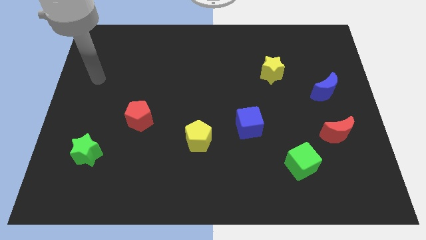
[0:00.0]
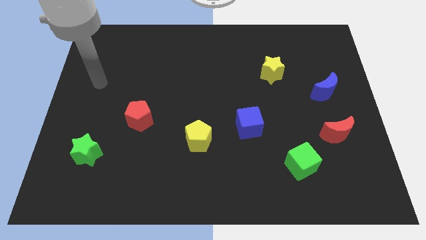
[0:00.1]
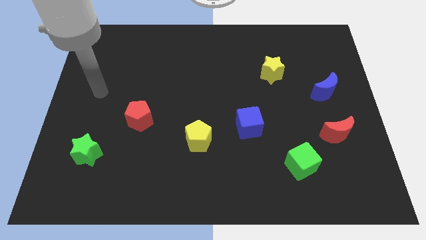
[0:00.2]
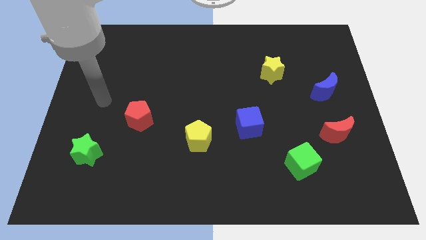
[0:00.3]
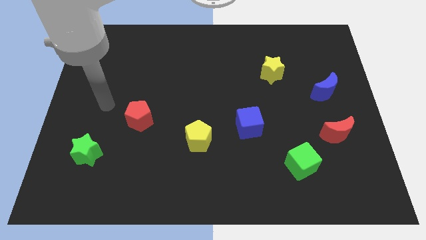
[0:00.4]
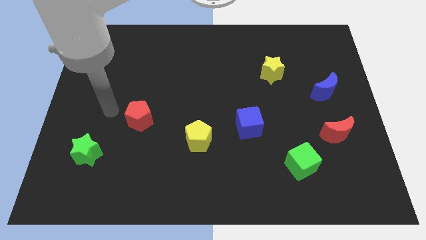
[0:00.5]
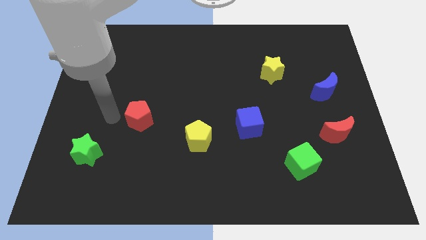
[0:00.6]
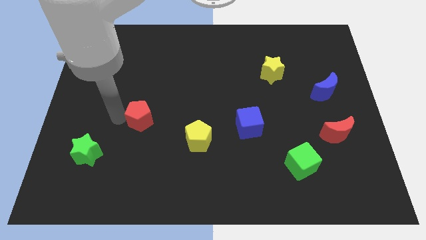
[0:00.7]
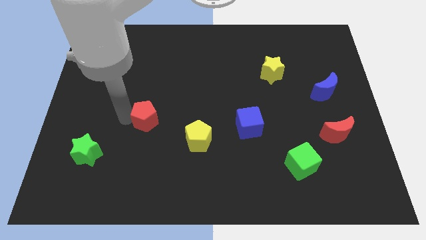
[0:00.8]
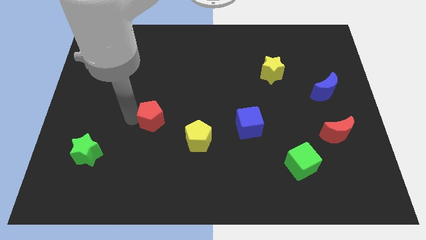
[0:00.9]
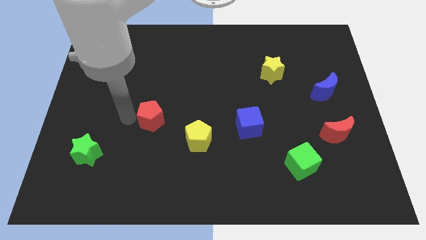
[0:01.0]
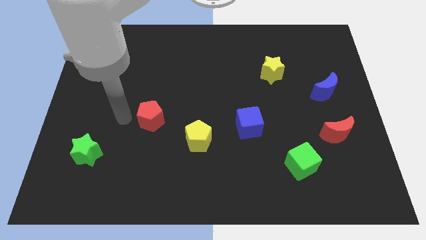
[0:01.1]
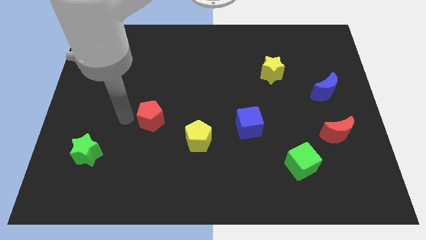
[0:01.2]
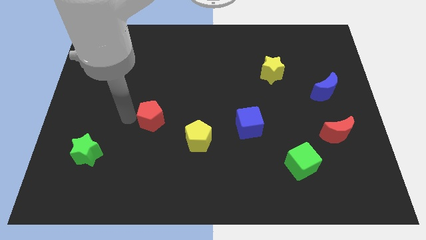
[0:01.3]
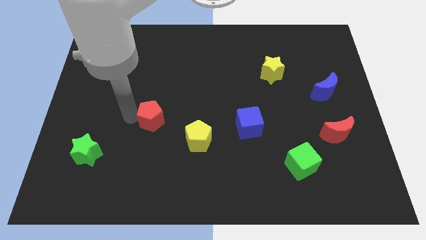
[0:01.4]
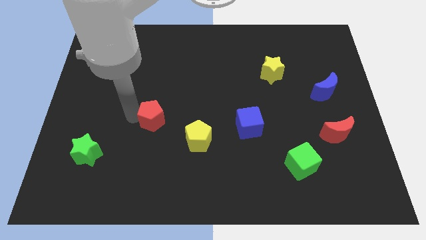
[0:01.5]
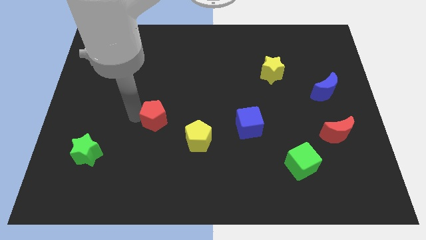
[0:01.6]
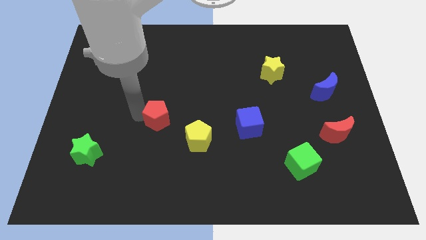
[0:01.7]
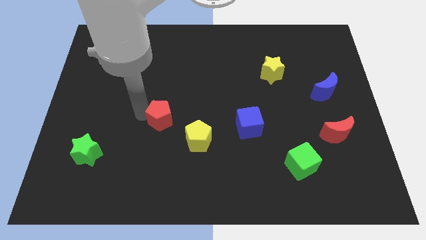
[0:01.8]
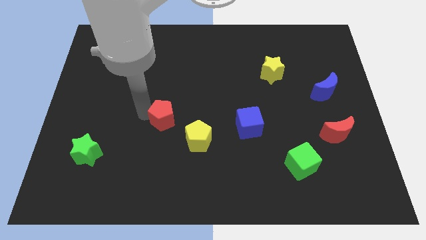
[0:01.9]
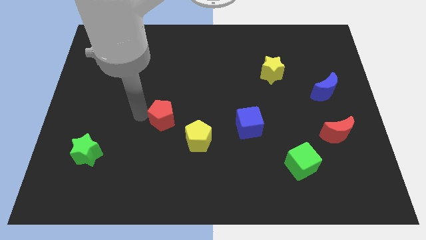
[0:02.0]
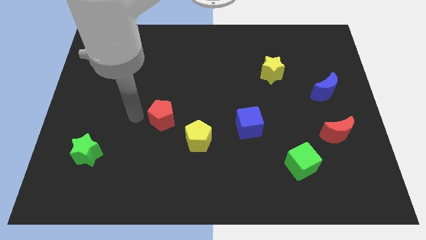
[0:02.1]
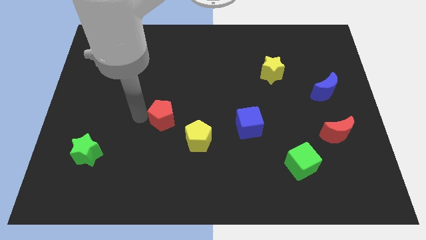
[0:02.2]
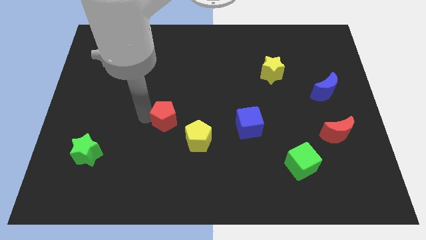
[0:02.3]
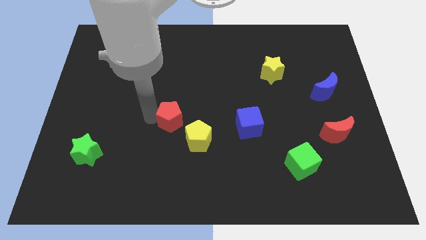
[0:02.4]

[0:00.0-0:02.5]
move the red pentagon to the right a little

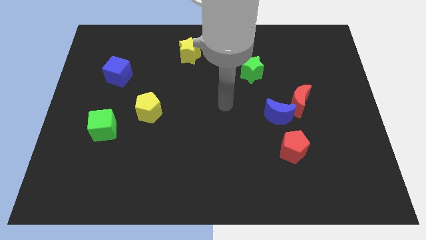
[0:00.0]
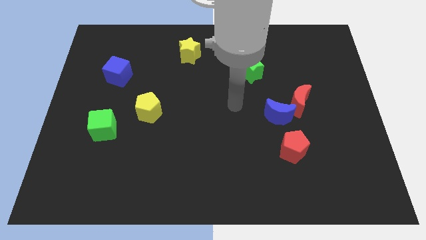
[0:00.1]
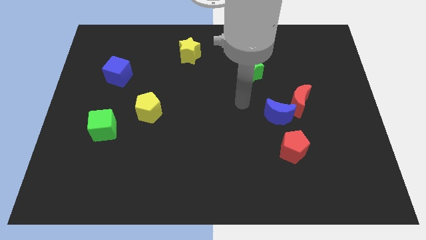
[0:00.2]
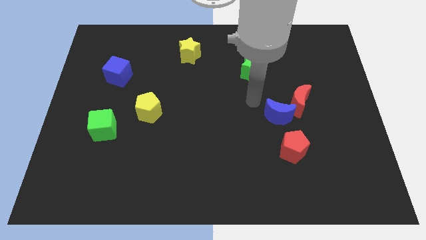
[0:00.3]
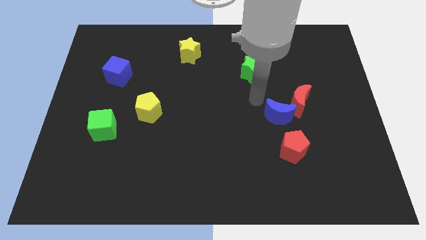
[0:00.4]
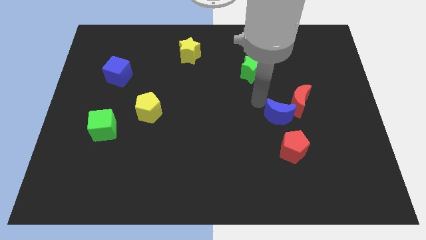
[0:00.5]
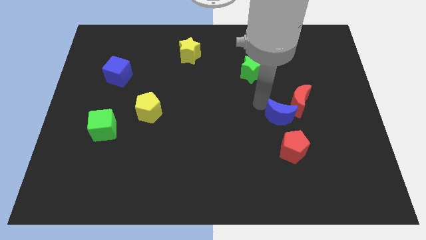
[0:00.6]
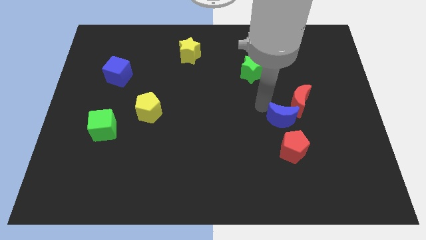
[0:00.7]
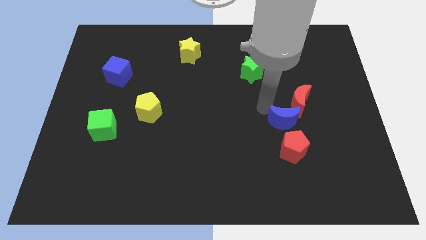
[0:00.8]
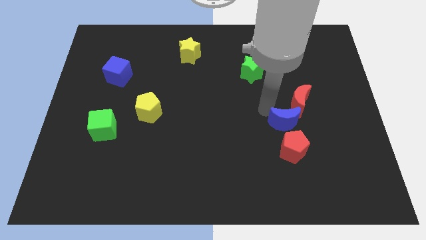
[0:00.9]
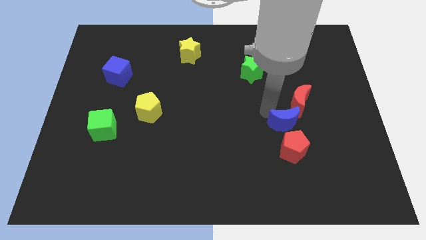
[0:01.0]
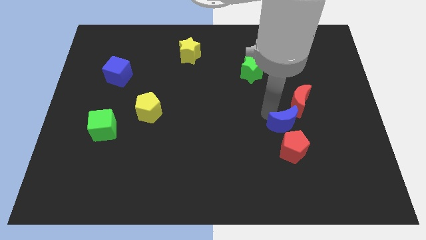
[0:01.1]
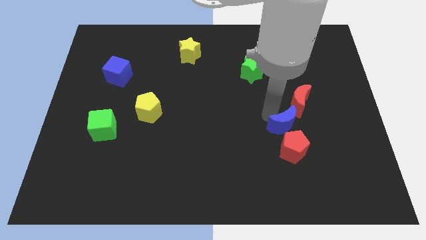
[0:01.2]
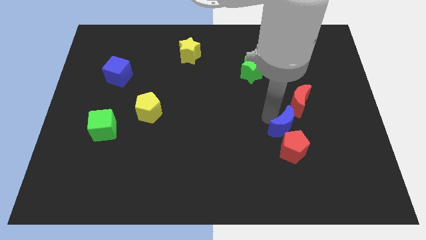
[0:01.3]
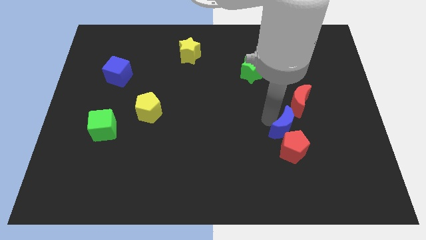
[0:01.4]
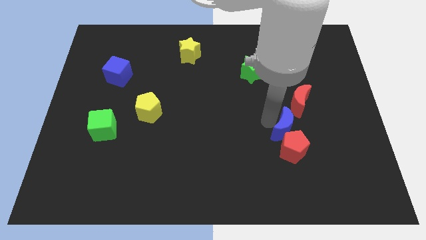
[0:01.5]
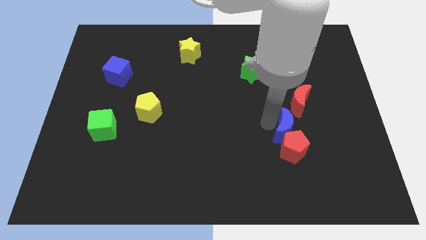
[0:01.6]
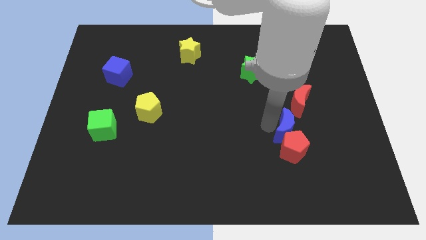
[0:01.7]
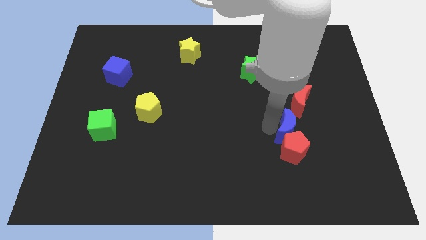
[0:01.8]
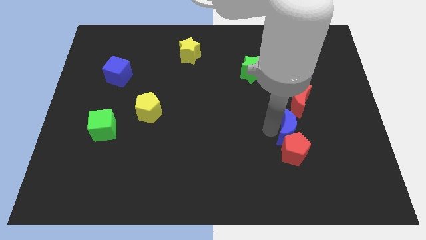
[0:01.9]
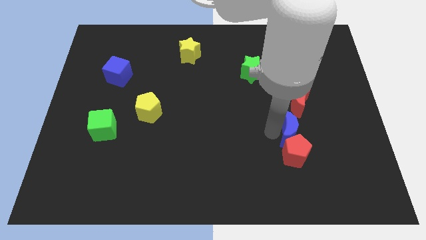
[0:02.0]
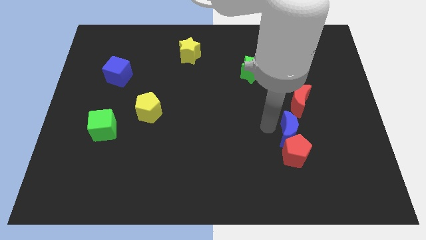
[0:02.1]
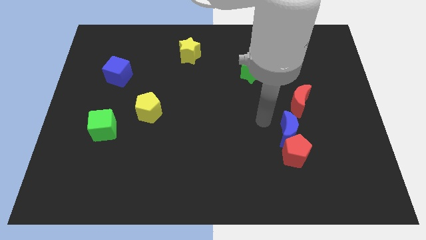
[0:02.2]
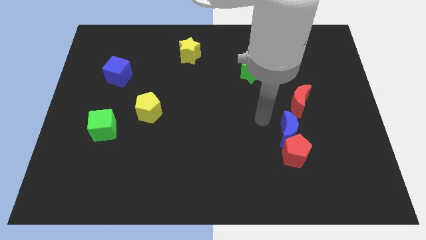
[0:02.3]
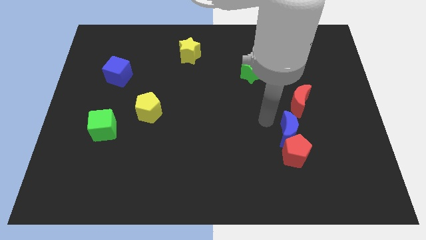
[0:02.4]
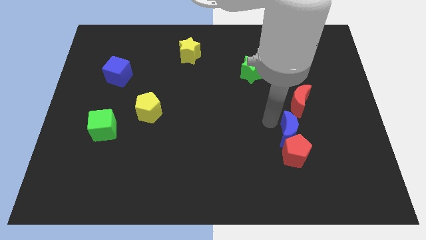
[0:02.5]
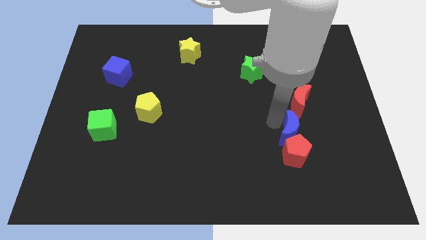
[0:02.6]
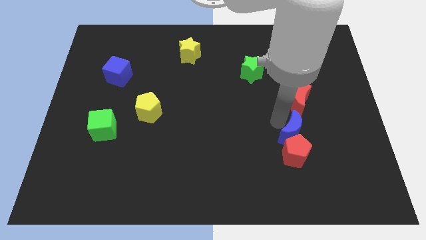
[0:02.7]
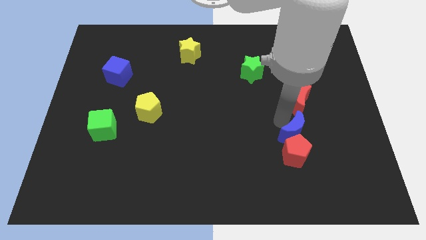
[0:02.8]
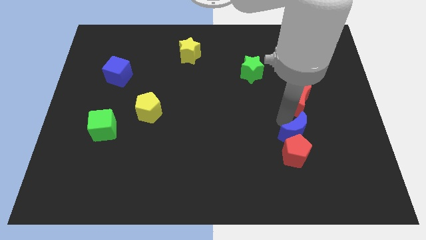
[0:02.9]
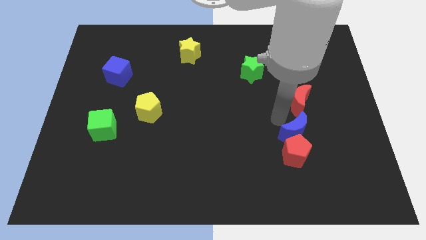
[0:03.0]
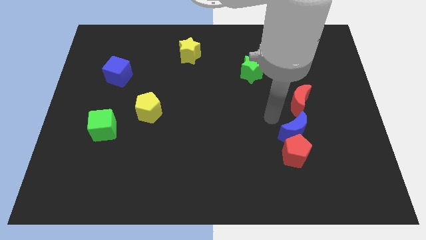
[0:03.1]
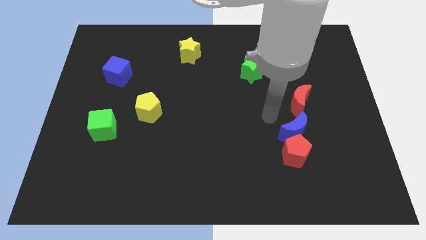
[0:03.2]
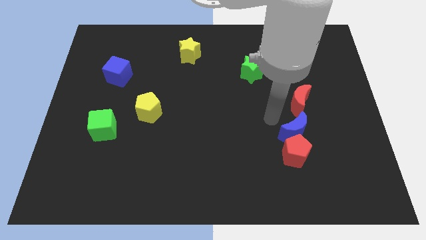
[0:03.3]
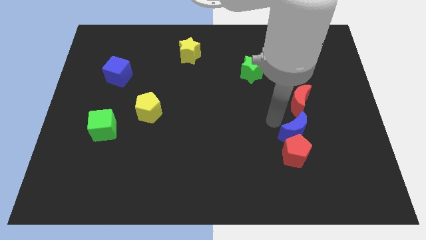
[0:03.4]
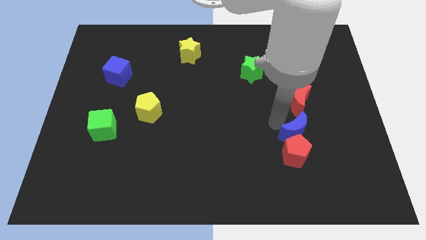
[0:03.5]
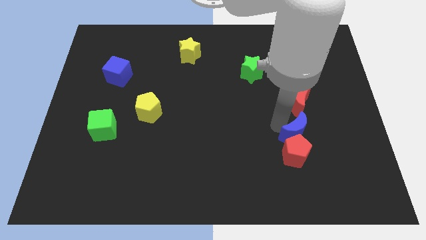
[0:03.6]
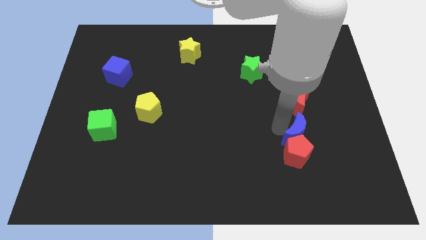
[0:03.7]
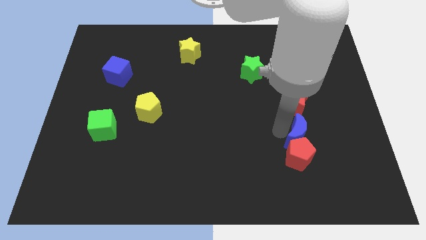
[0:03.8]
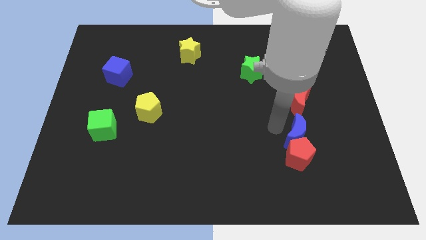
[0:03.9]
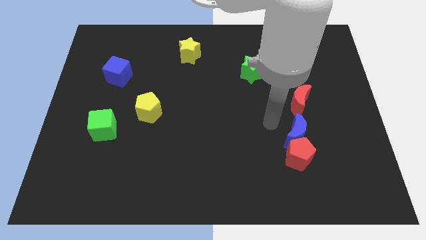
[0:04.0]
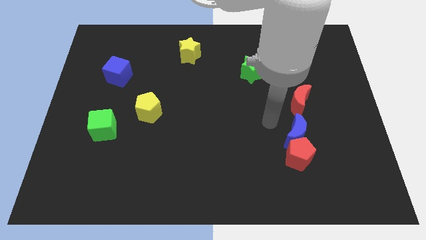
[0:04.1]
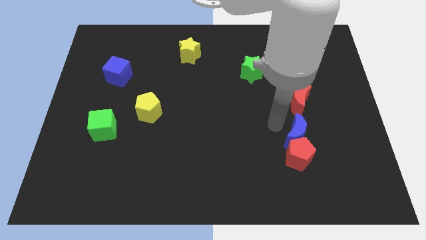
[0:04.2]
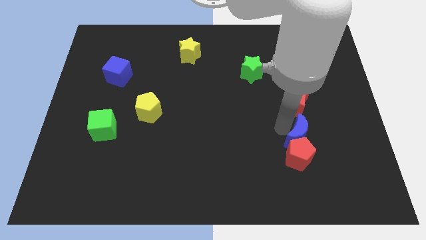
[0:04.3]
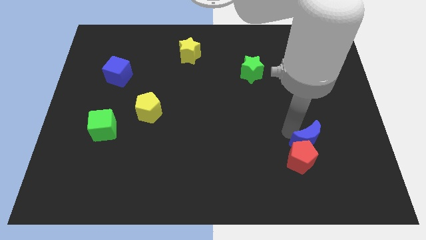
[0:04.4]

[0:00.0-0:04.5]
slide the blue moon downwards and to the right diagonally a little bit

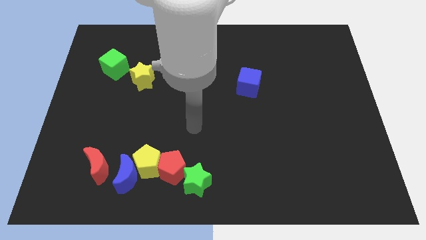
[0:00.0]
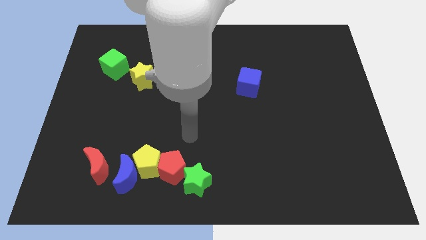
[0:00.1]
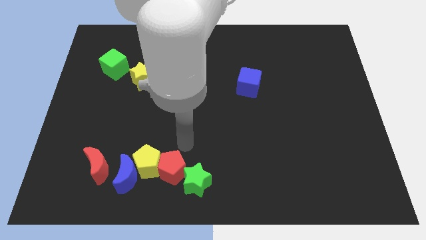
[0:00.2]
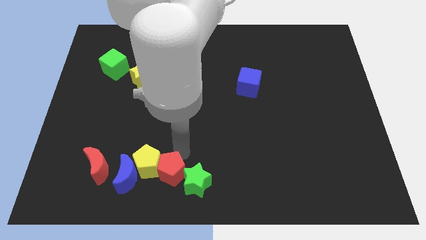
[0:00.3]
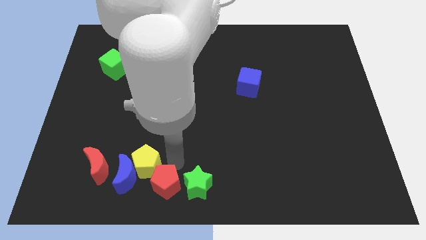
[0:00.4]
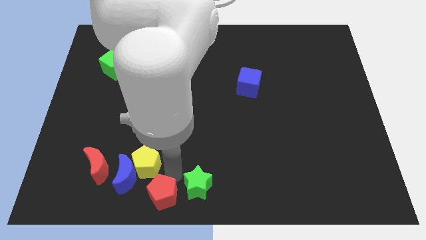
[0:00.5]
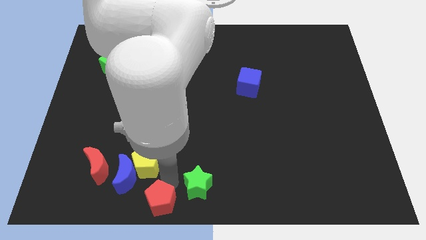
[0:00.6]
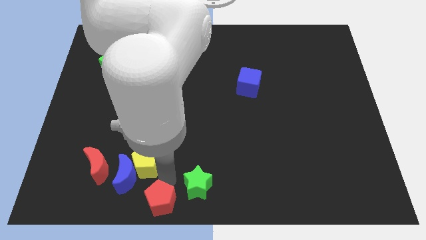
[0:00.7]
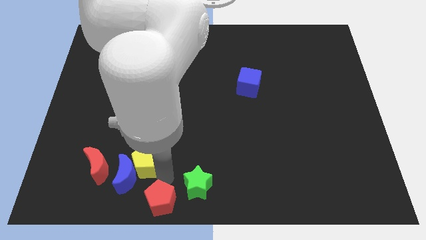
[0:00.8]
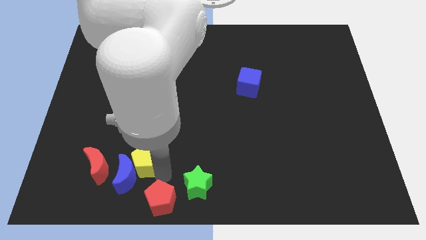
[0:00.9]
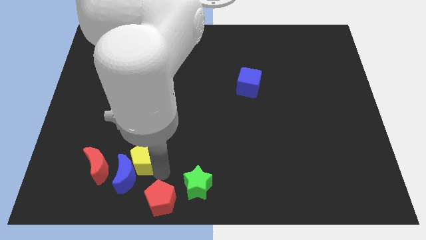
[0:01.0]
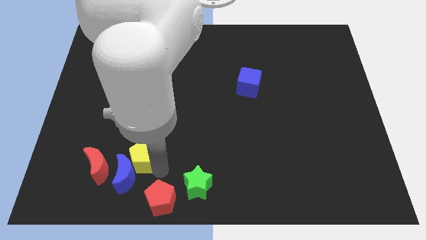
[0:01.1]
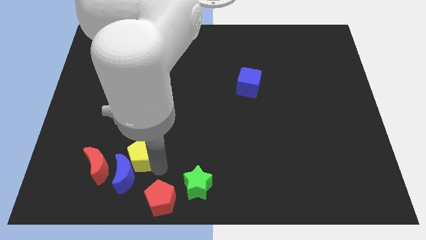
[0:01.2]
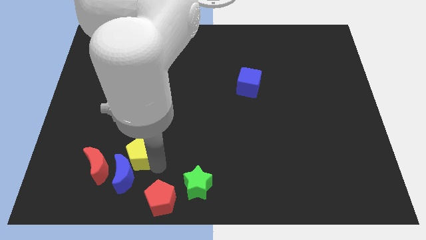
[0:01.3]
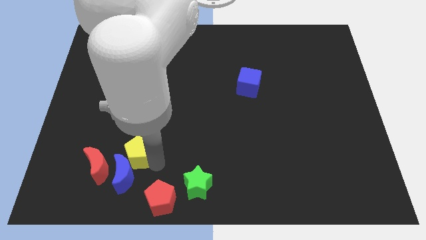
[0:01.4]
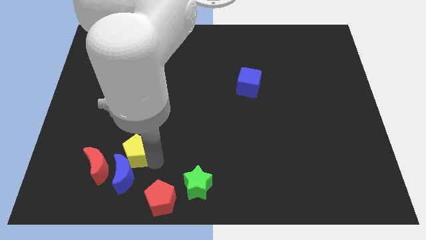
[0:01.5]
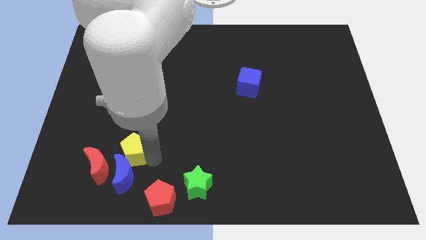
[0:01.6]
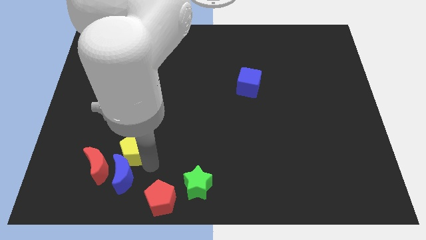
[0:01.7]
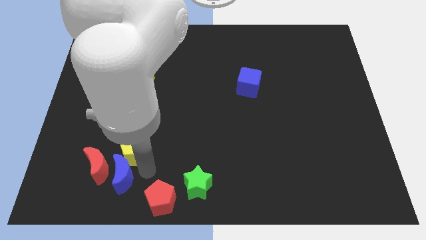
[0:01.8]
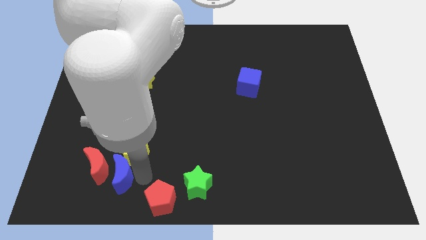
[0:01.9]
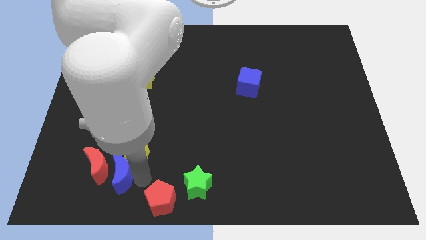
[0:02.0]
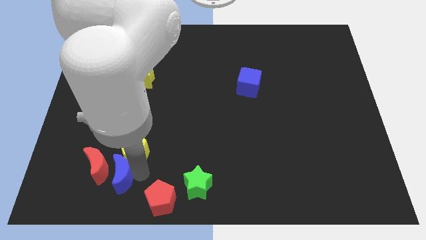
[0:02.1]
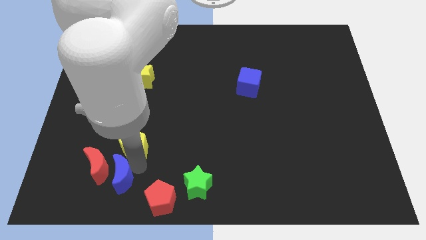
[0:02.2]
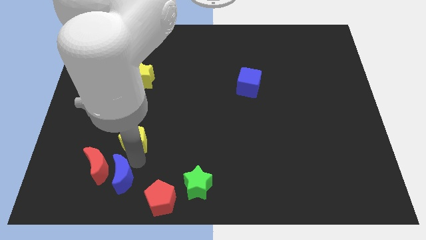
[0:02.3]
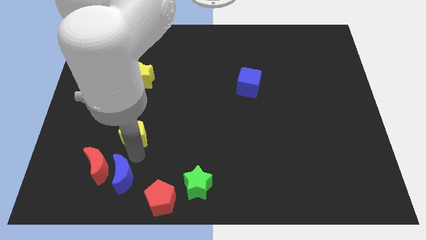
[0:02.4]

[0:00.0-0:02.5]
move the yellow pentagon somewhat upwards and to the left
